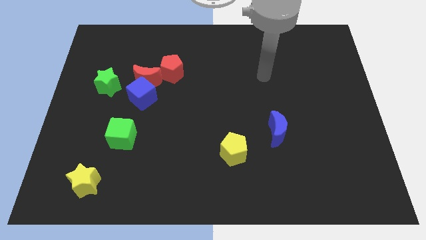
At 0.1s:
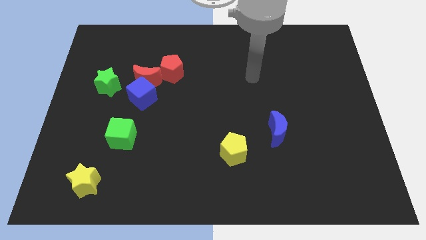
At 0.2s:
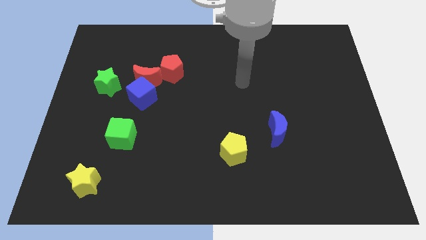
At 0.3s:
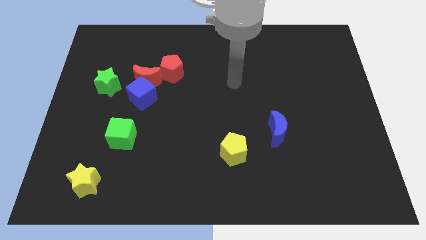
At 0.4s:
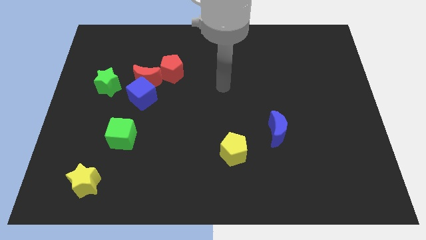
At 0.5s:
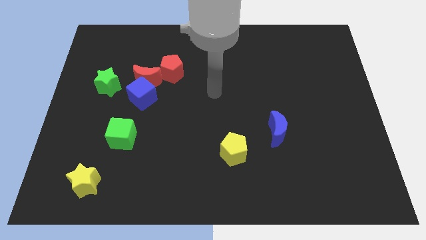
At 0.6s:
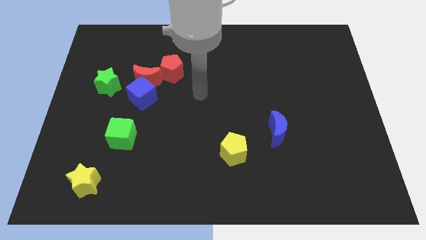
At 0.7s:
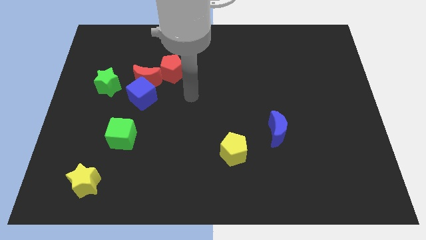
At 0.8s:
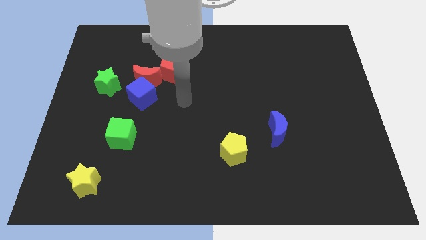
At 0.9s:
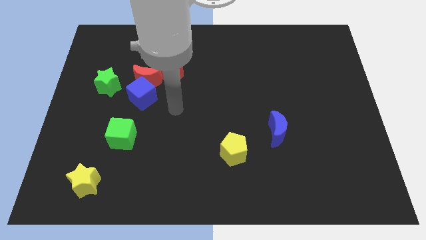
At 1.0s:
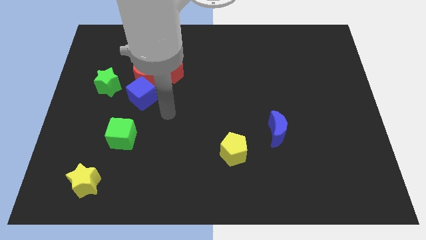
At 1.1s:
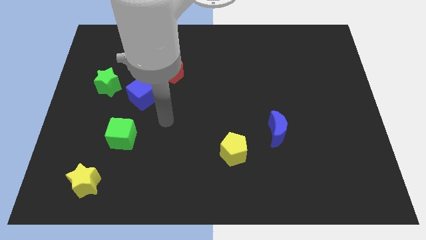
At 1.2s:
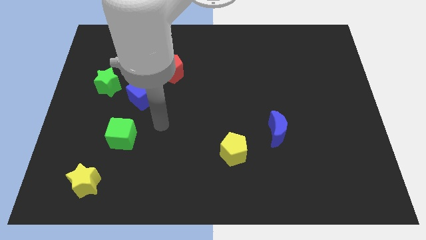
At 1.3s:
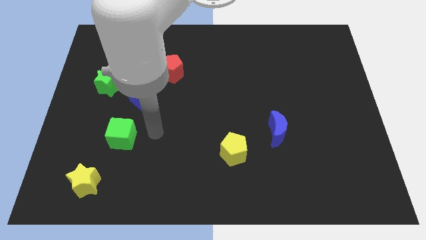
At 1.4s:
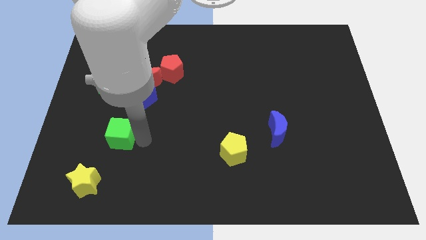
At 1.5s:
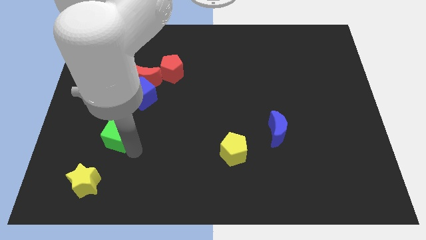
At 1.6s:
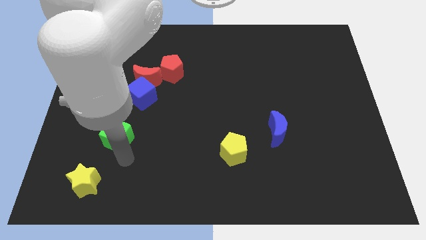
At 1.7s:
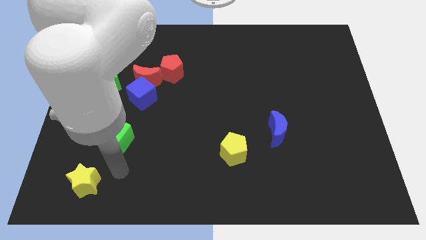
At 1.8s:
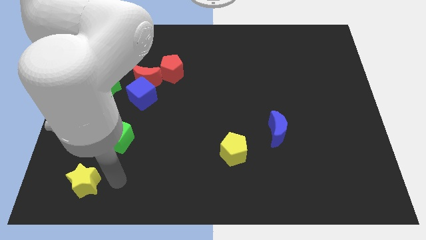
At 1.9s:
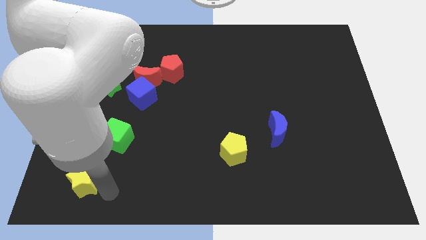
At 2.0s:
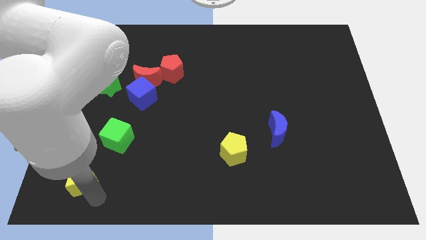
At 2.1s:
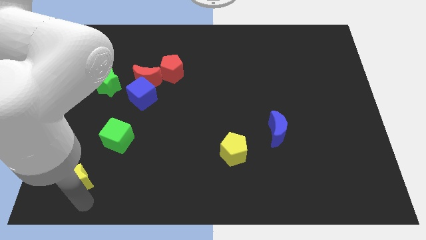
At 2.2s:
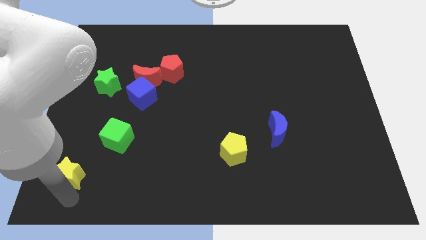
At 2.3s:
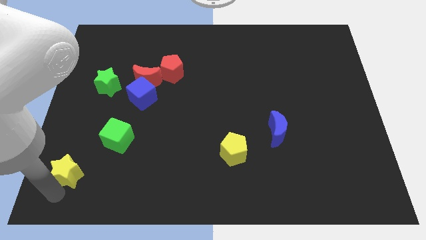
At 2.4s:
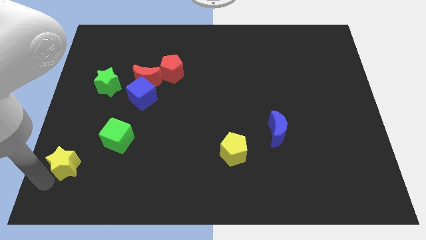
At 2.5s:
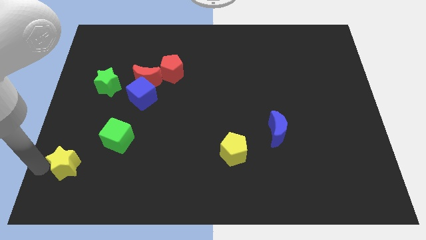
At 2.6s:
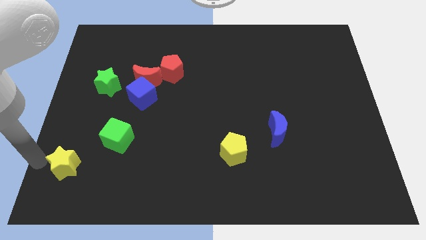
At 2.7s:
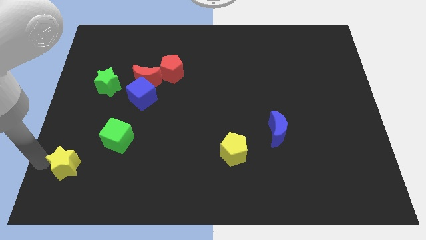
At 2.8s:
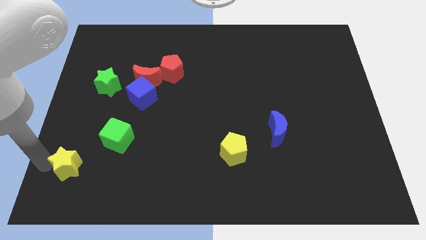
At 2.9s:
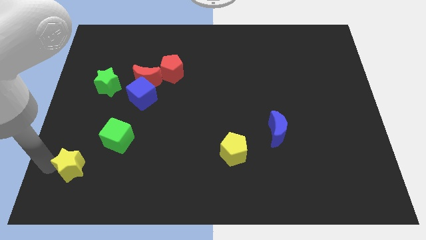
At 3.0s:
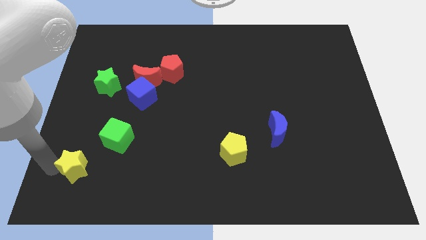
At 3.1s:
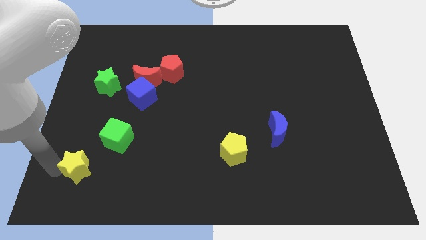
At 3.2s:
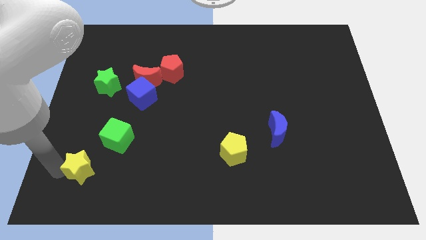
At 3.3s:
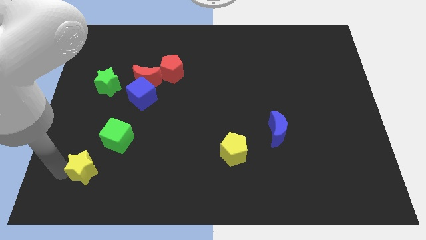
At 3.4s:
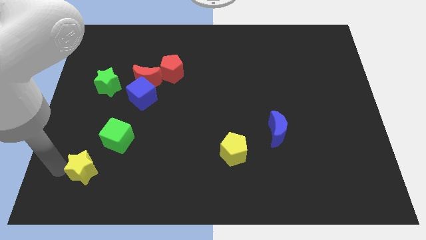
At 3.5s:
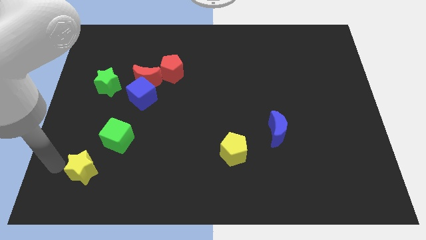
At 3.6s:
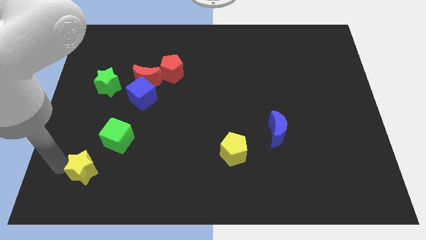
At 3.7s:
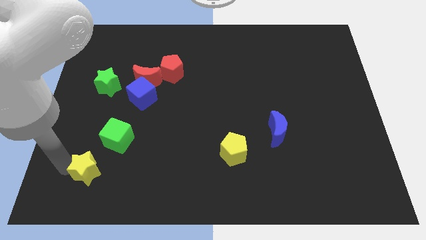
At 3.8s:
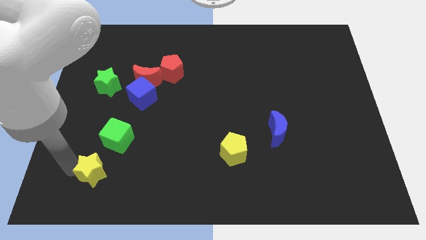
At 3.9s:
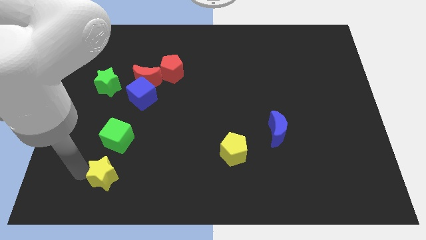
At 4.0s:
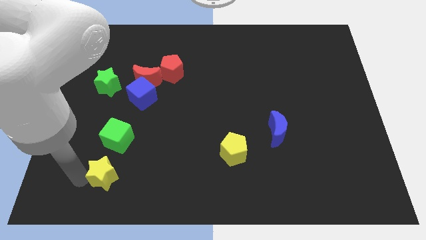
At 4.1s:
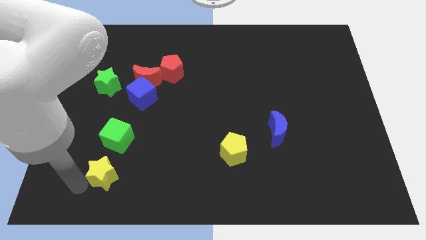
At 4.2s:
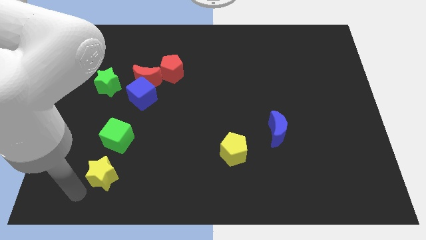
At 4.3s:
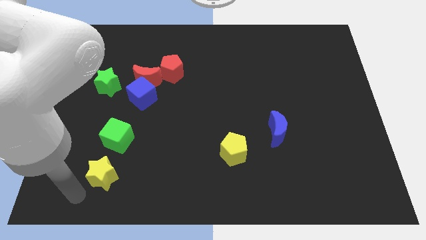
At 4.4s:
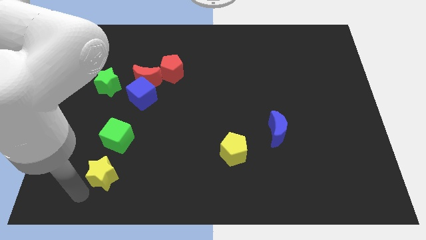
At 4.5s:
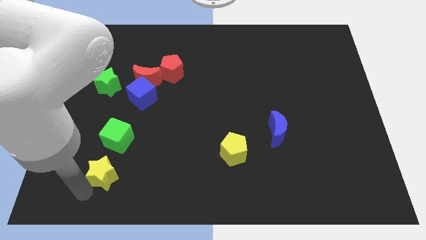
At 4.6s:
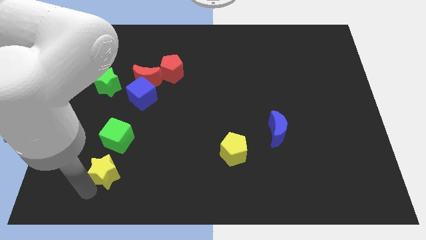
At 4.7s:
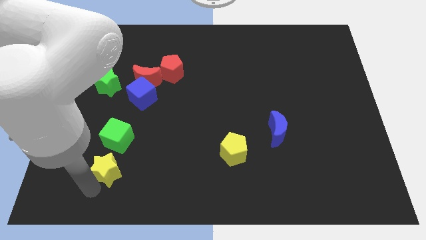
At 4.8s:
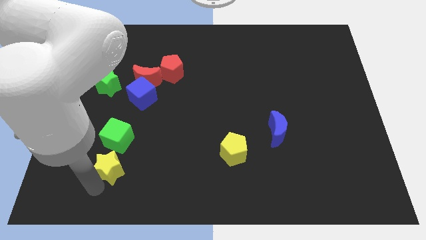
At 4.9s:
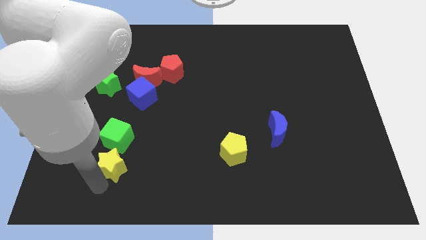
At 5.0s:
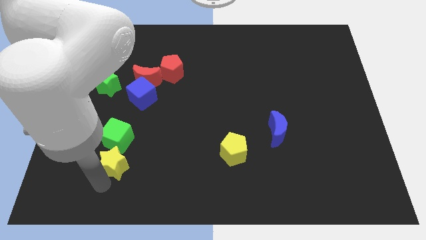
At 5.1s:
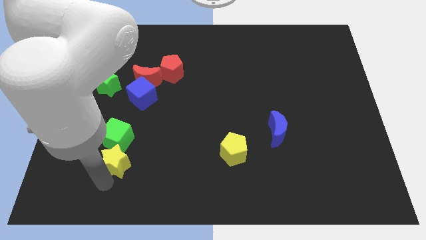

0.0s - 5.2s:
slide the yellow star up and right diagonally a little bit

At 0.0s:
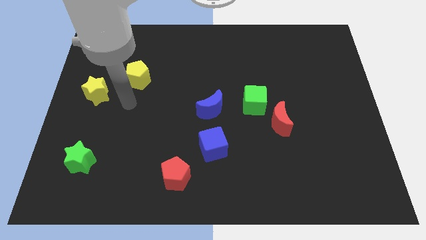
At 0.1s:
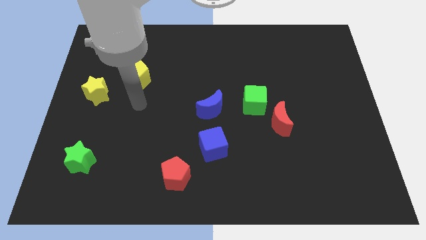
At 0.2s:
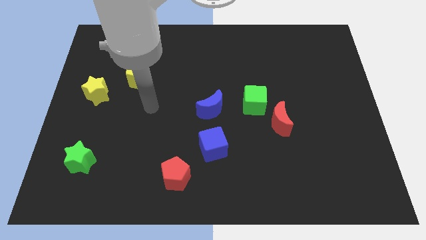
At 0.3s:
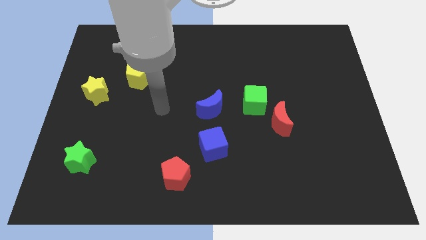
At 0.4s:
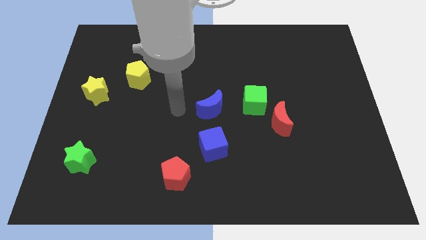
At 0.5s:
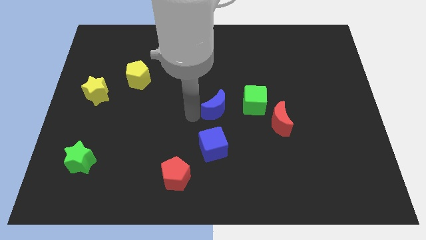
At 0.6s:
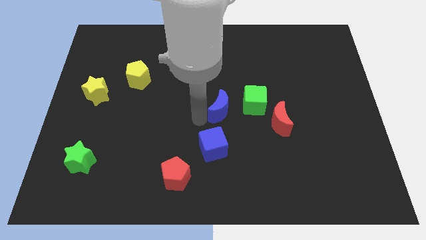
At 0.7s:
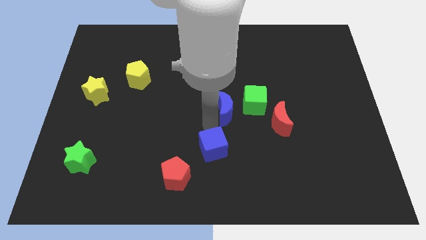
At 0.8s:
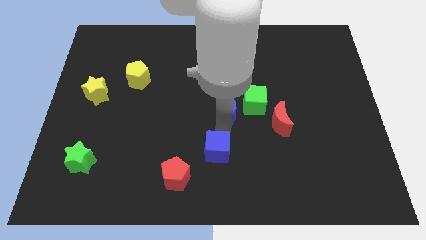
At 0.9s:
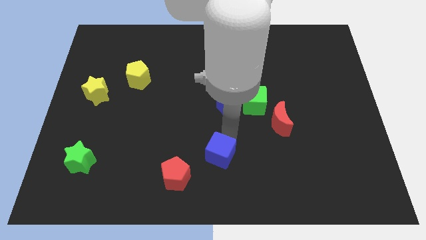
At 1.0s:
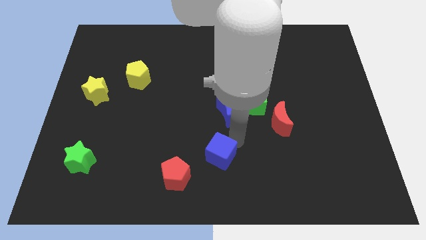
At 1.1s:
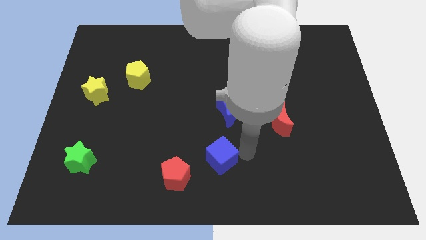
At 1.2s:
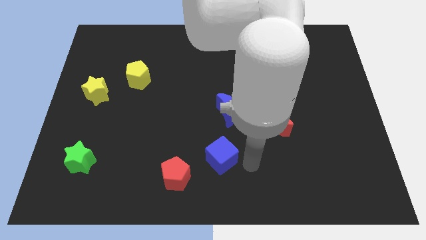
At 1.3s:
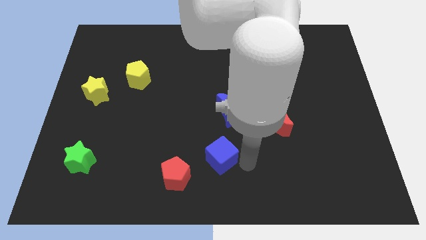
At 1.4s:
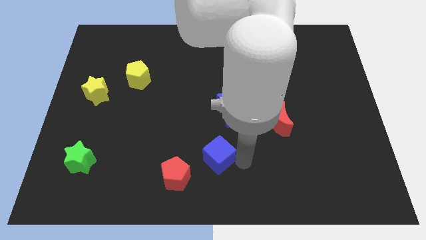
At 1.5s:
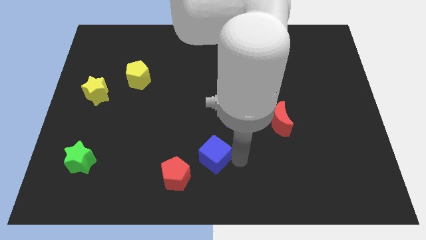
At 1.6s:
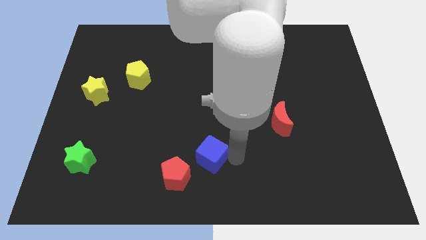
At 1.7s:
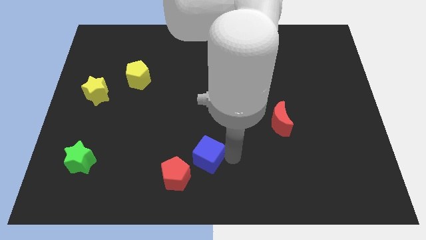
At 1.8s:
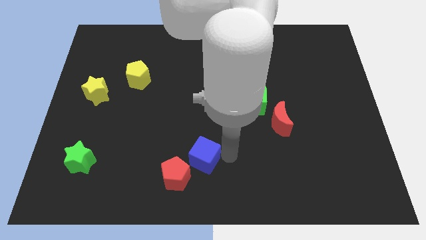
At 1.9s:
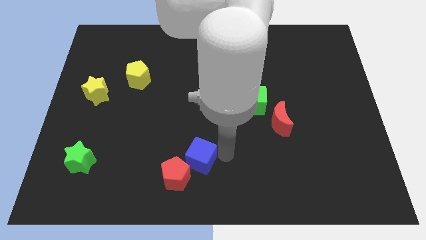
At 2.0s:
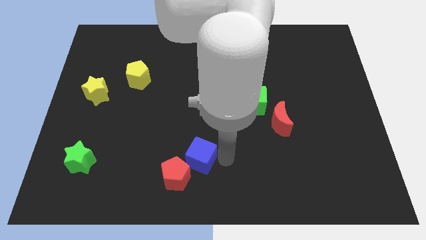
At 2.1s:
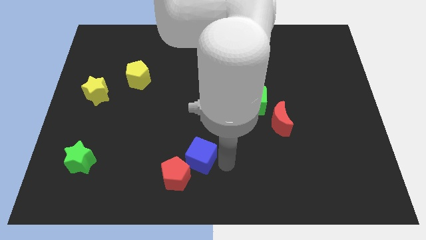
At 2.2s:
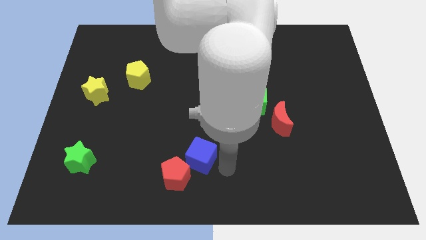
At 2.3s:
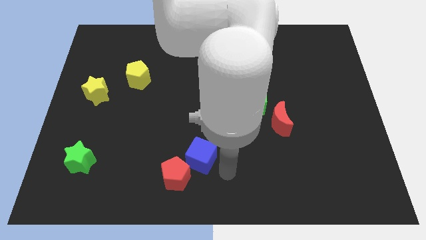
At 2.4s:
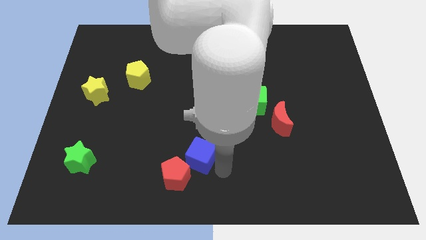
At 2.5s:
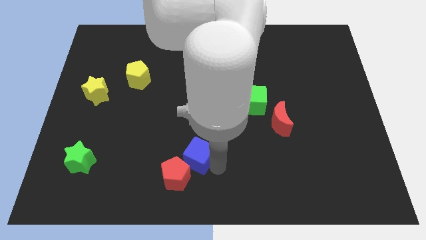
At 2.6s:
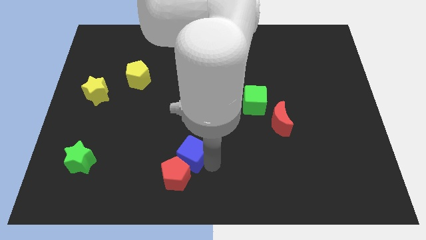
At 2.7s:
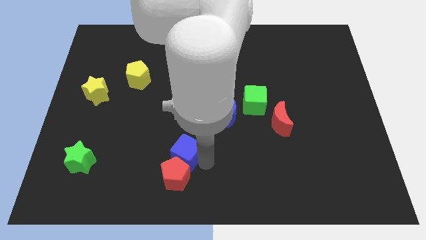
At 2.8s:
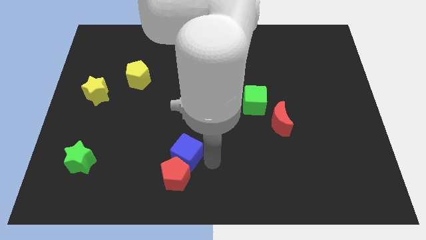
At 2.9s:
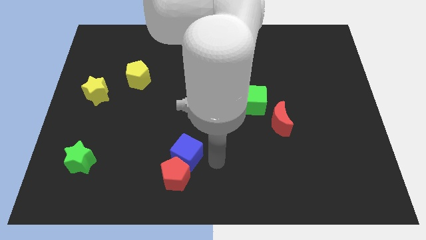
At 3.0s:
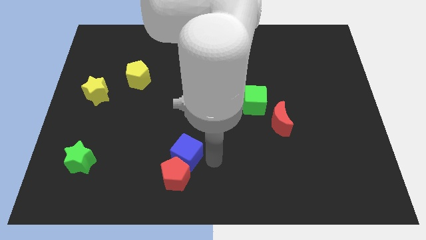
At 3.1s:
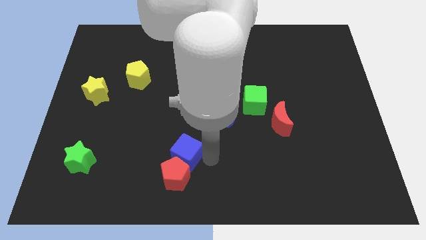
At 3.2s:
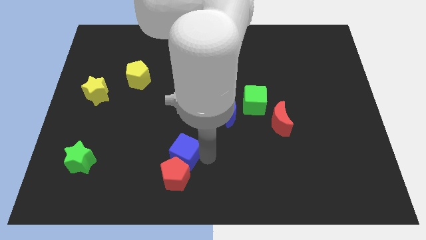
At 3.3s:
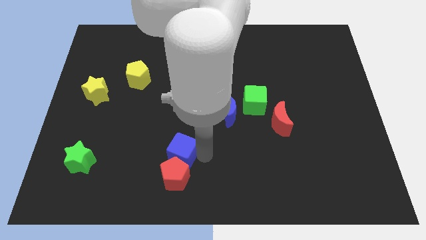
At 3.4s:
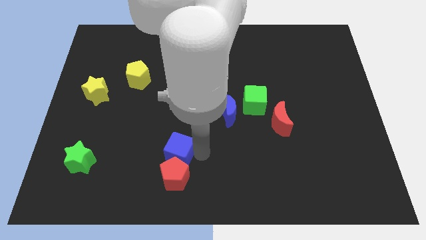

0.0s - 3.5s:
move the blue cube a bit left
